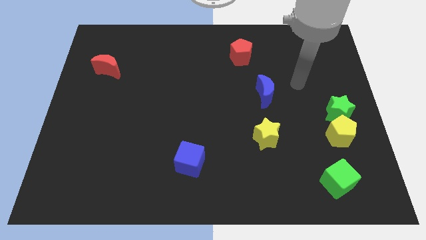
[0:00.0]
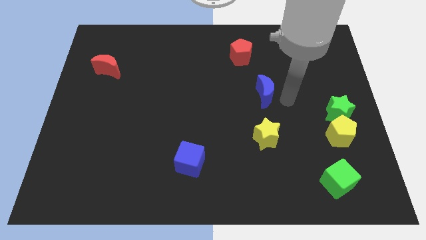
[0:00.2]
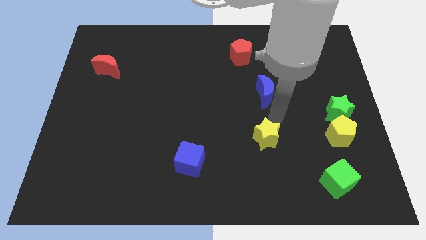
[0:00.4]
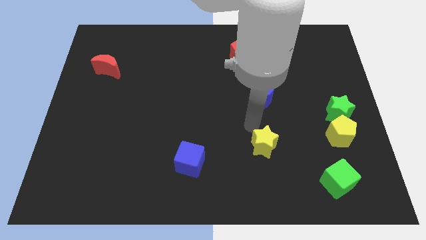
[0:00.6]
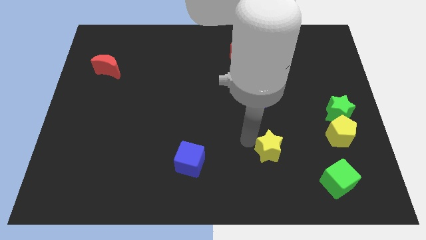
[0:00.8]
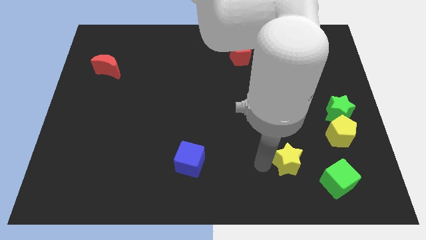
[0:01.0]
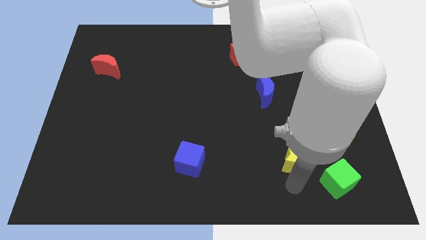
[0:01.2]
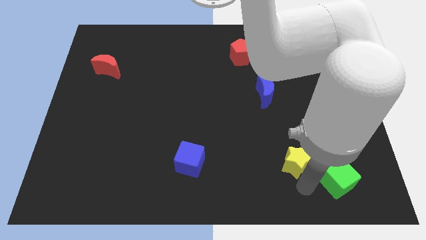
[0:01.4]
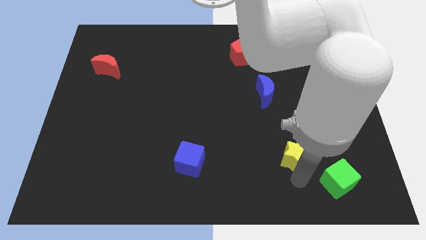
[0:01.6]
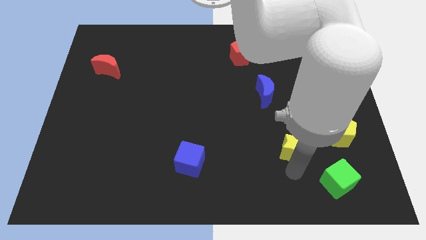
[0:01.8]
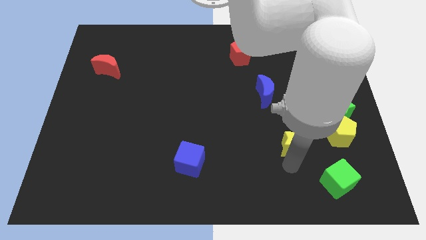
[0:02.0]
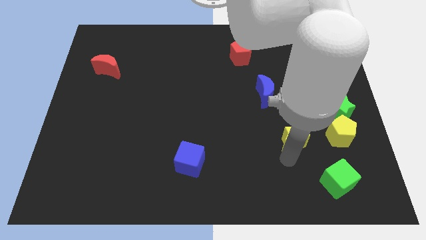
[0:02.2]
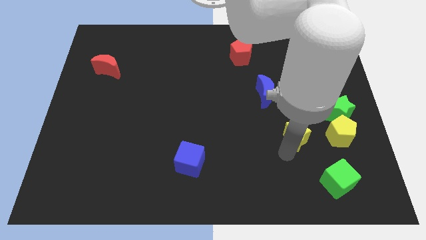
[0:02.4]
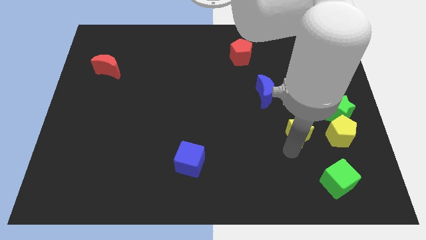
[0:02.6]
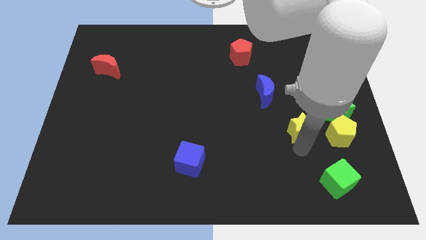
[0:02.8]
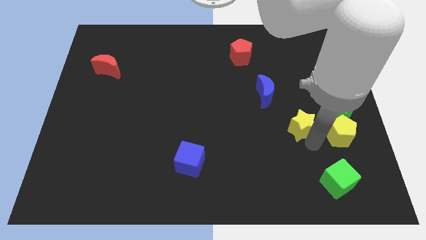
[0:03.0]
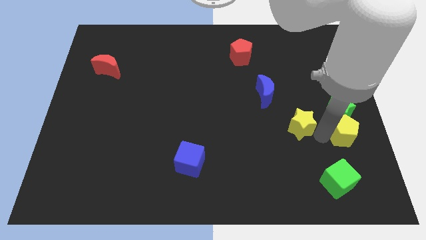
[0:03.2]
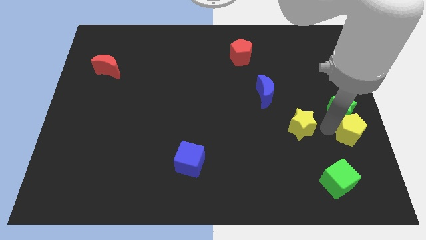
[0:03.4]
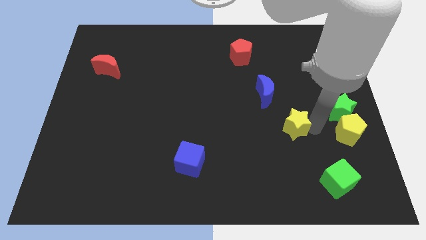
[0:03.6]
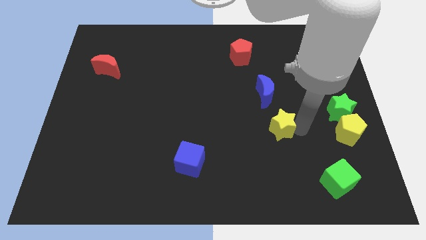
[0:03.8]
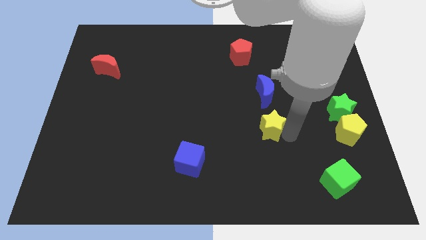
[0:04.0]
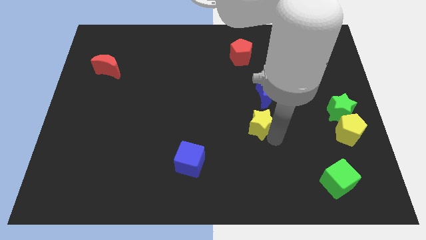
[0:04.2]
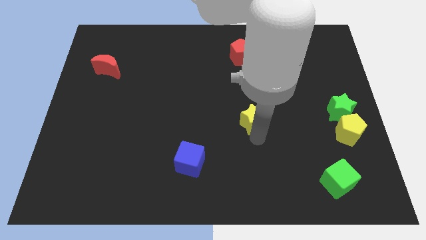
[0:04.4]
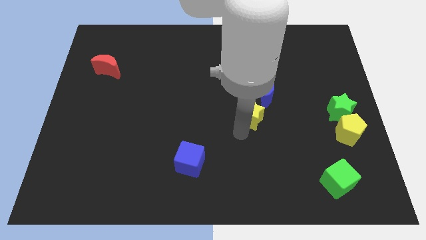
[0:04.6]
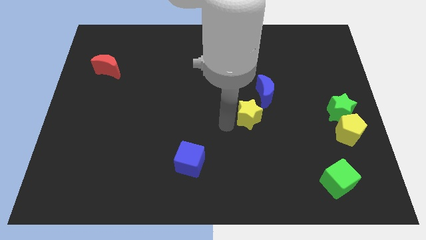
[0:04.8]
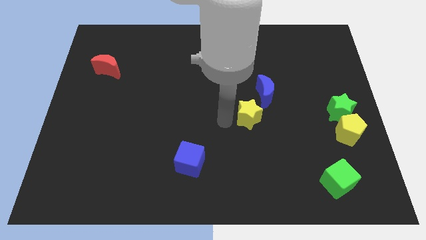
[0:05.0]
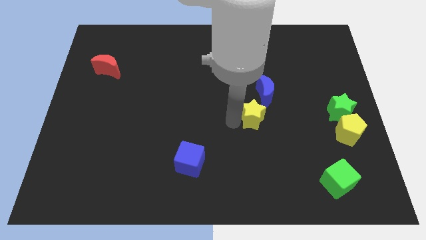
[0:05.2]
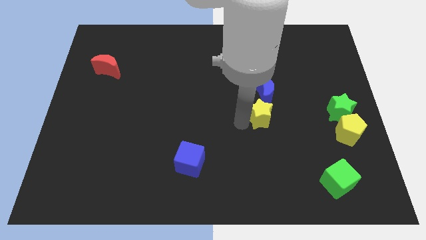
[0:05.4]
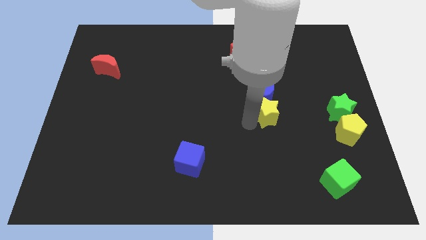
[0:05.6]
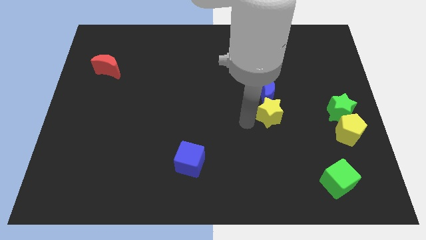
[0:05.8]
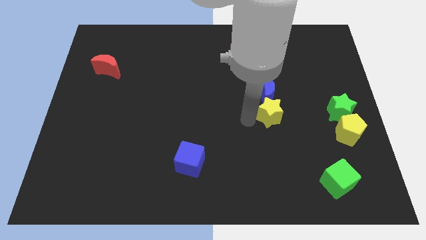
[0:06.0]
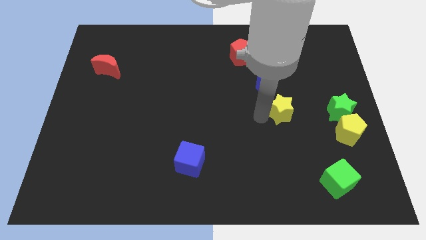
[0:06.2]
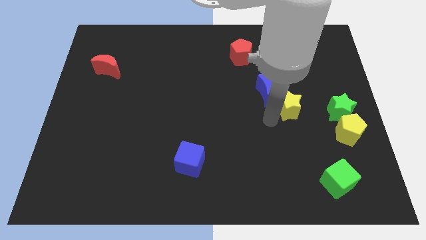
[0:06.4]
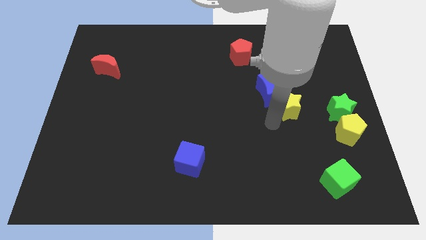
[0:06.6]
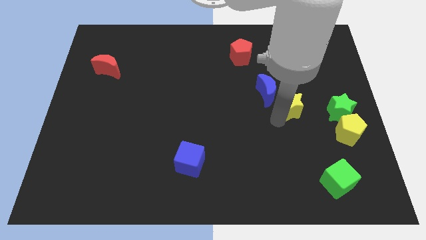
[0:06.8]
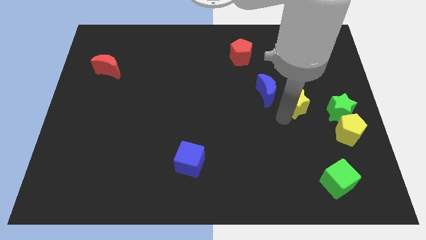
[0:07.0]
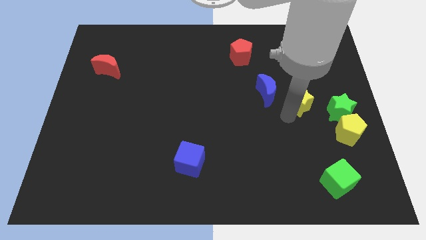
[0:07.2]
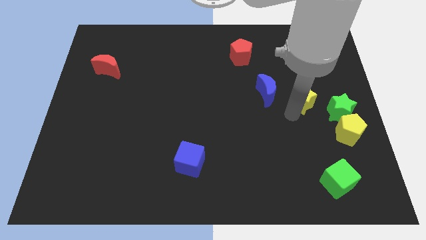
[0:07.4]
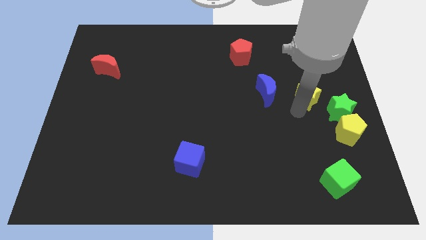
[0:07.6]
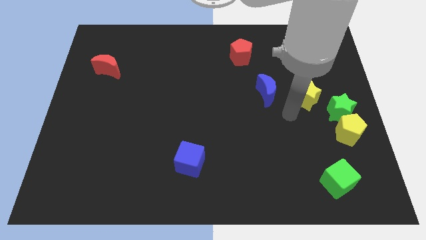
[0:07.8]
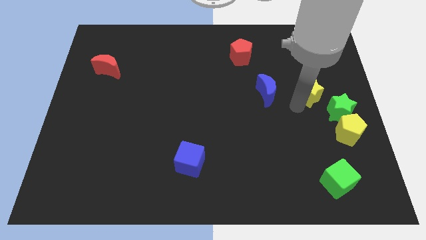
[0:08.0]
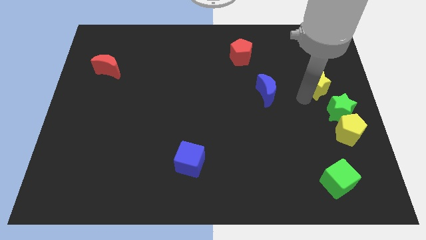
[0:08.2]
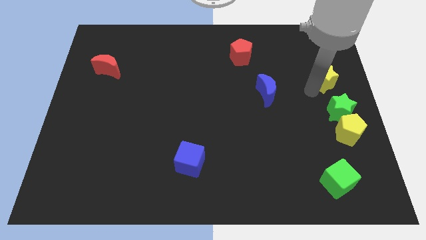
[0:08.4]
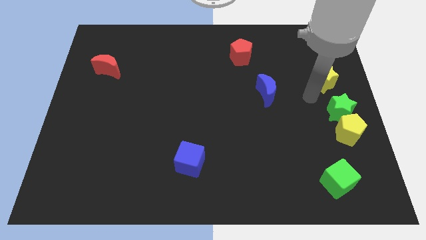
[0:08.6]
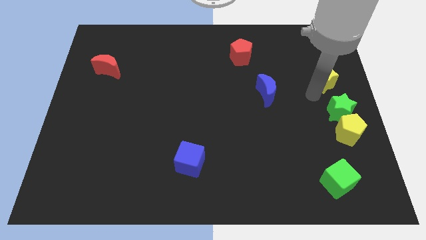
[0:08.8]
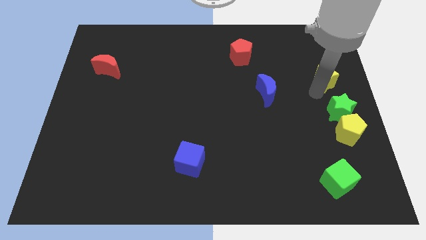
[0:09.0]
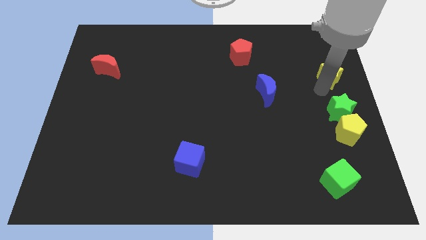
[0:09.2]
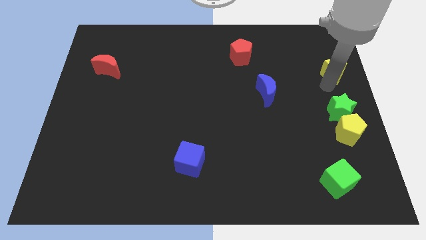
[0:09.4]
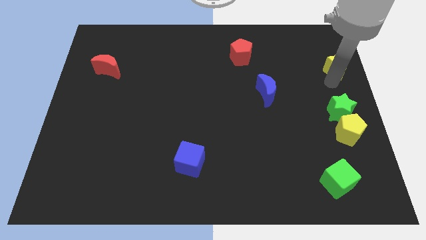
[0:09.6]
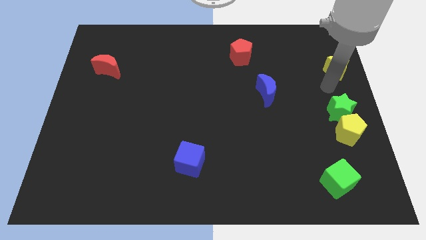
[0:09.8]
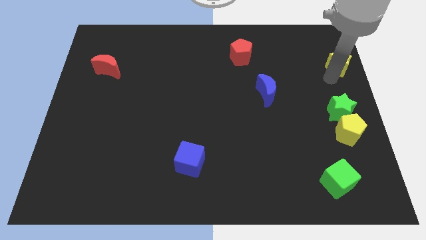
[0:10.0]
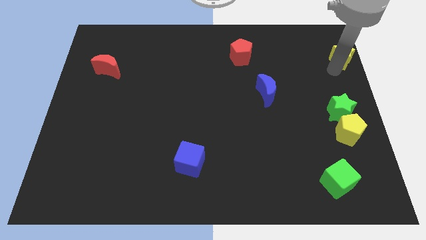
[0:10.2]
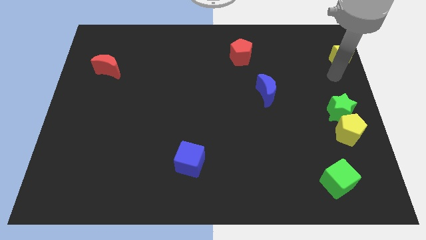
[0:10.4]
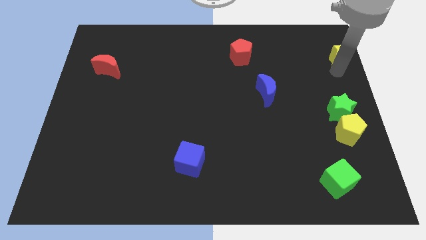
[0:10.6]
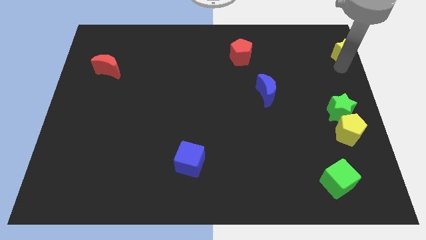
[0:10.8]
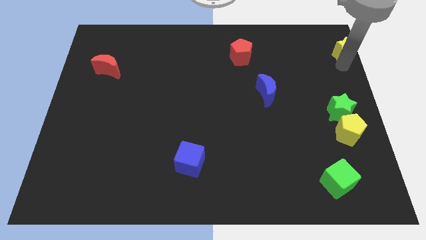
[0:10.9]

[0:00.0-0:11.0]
move the yellow star to the top right corner

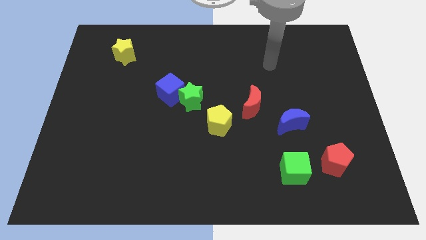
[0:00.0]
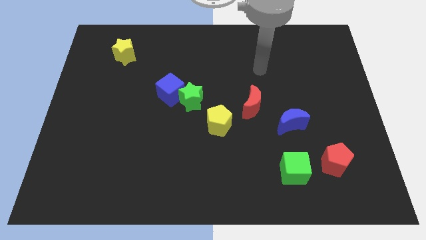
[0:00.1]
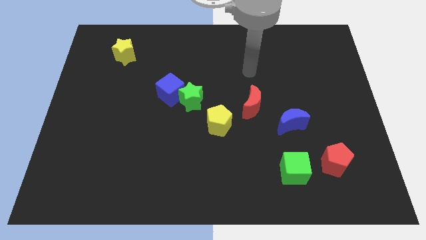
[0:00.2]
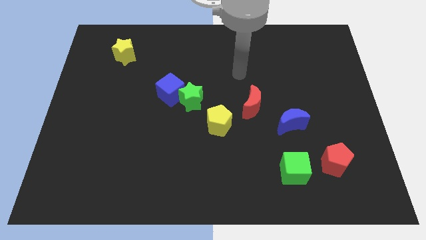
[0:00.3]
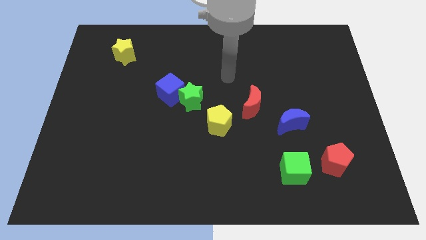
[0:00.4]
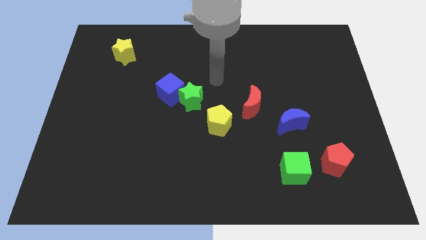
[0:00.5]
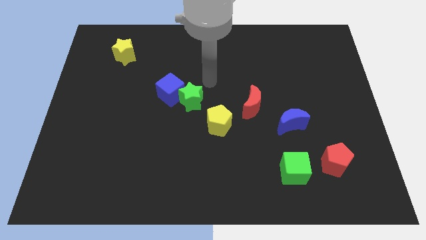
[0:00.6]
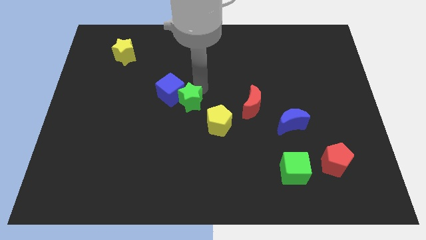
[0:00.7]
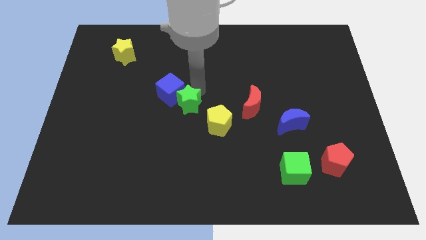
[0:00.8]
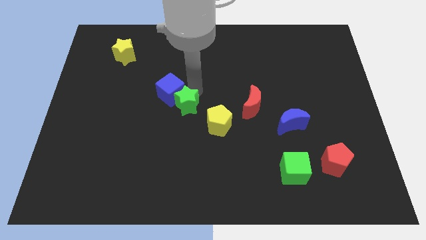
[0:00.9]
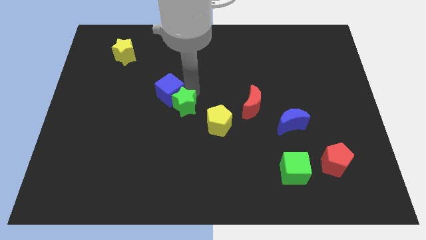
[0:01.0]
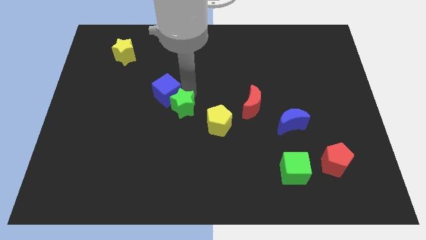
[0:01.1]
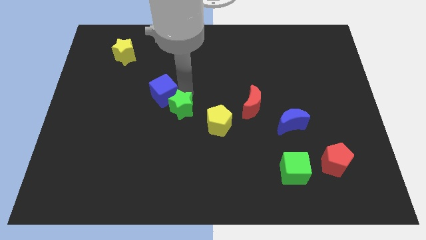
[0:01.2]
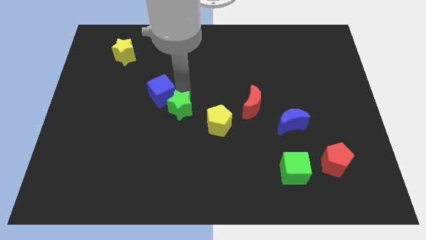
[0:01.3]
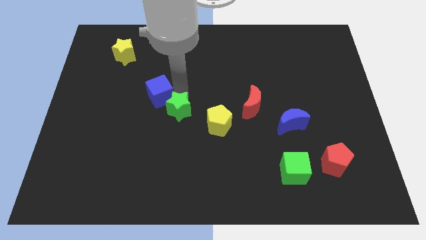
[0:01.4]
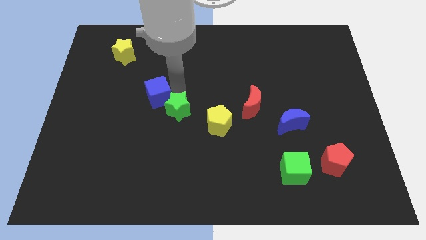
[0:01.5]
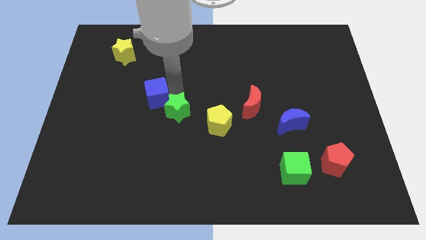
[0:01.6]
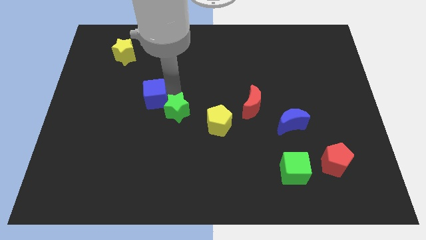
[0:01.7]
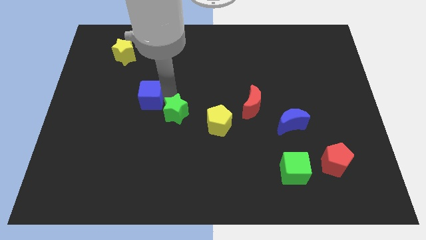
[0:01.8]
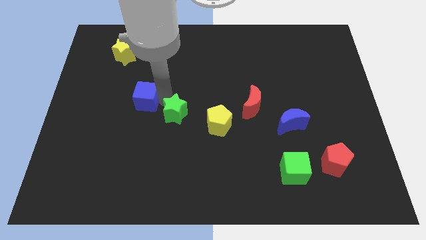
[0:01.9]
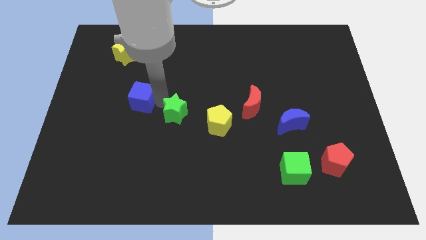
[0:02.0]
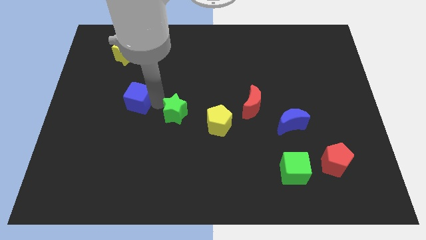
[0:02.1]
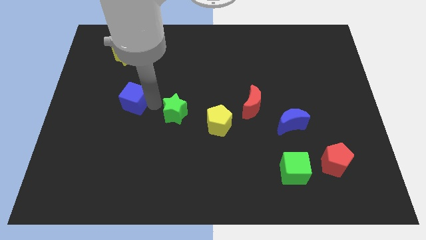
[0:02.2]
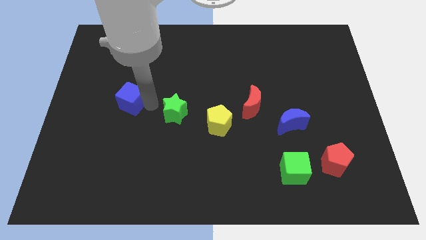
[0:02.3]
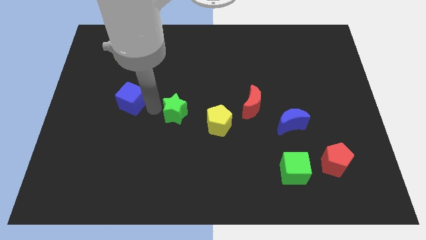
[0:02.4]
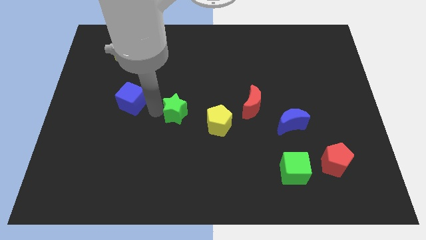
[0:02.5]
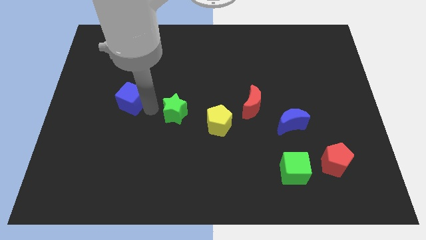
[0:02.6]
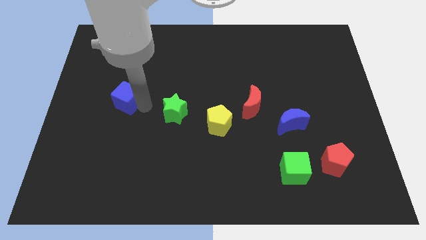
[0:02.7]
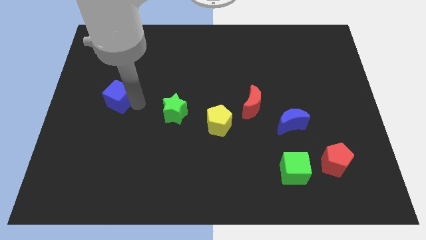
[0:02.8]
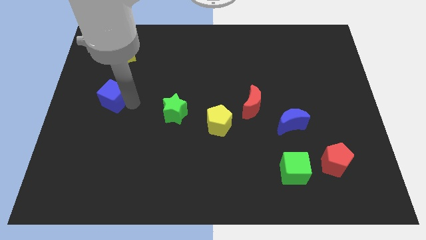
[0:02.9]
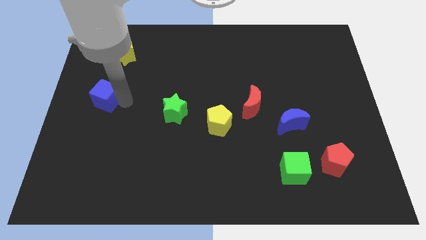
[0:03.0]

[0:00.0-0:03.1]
put the blue cube to the center left
